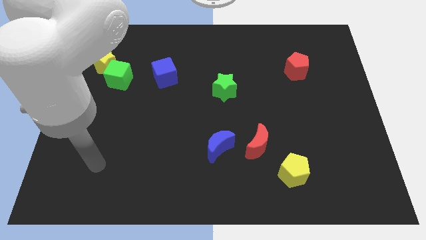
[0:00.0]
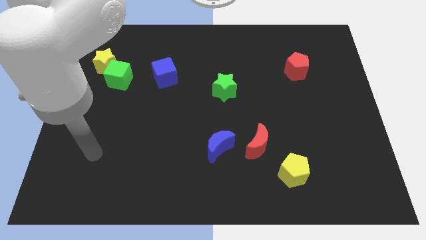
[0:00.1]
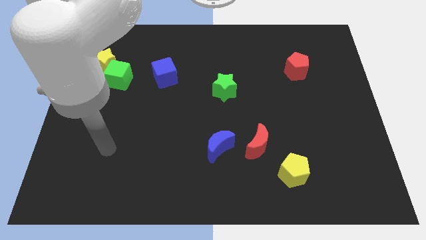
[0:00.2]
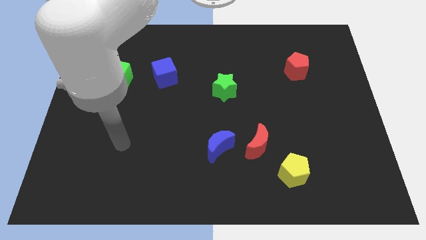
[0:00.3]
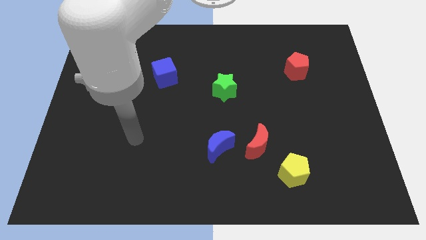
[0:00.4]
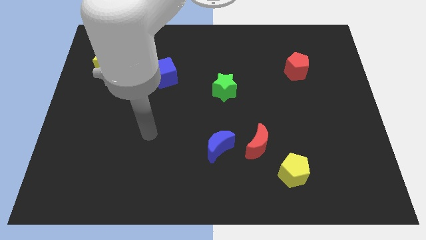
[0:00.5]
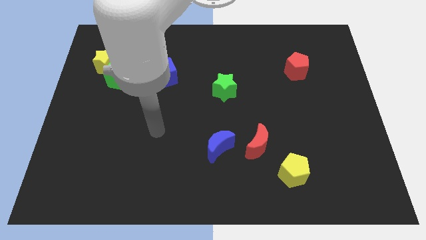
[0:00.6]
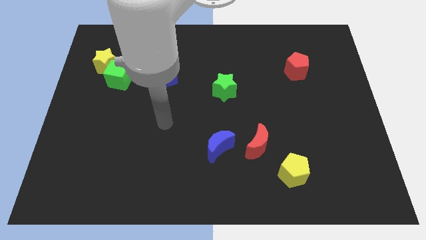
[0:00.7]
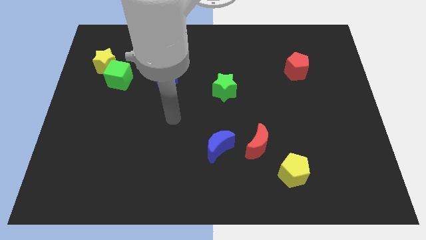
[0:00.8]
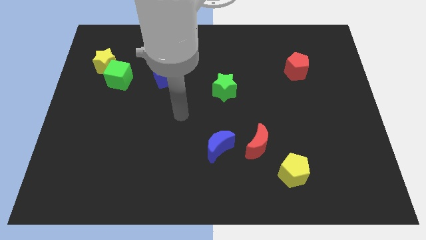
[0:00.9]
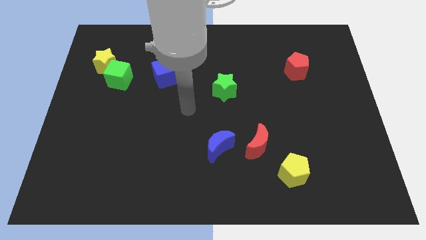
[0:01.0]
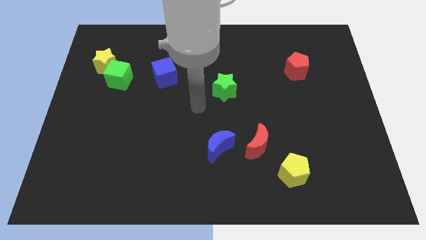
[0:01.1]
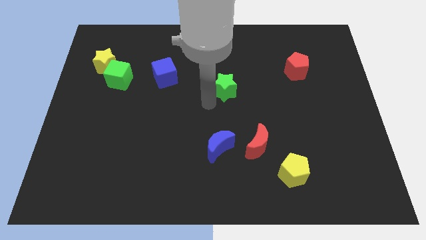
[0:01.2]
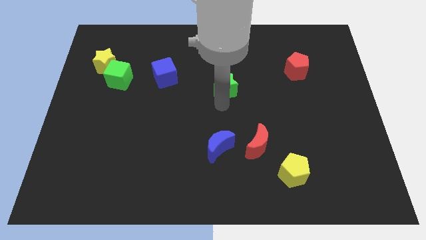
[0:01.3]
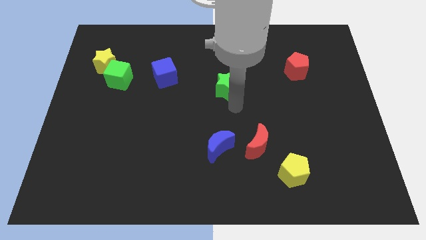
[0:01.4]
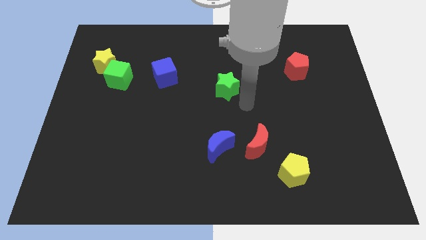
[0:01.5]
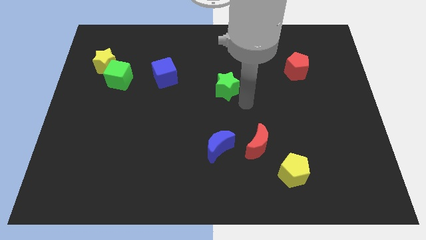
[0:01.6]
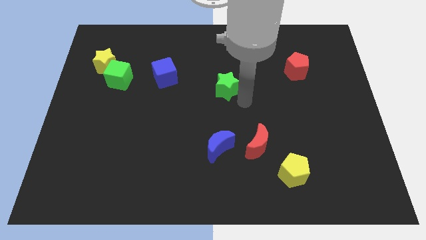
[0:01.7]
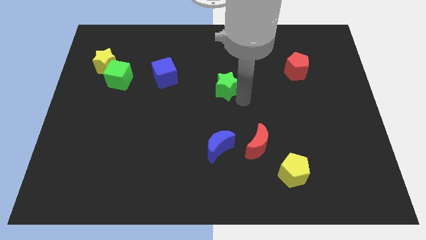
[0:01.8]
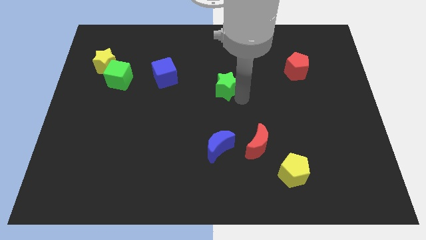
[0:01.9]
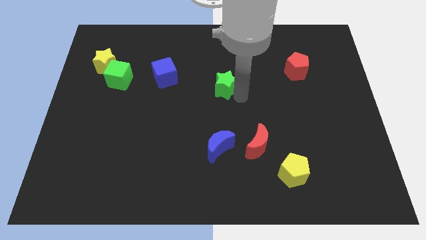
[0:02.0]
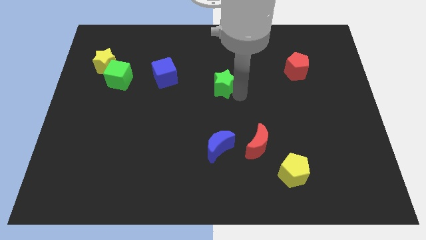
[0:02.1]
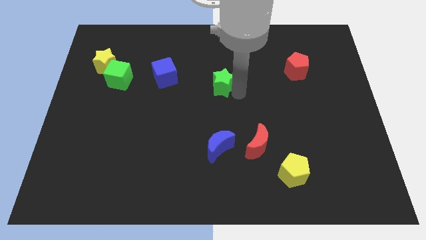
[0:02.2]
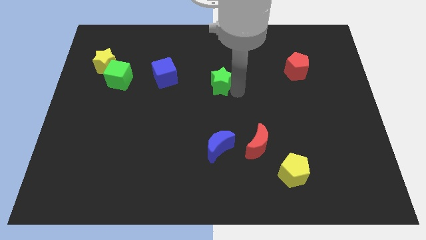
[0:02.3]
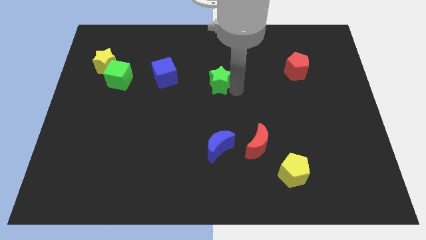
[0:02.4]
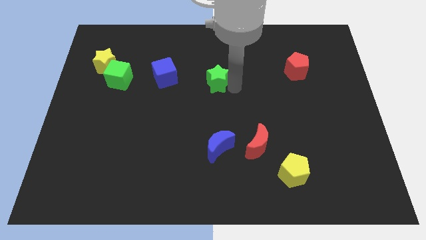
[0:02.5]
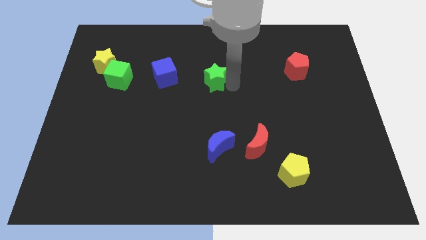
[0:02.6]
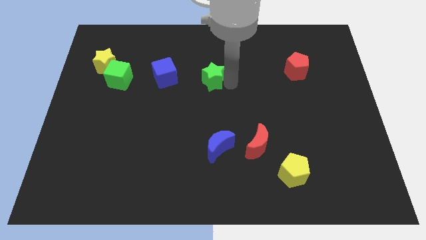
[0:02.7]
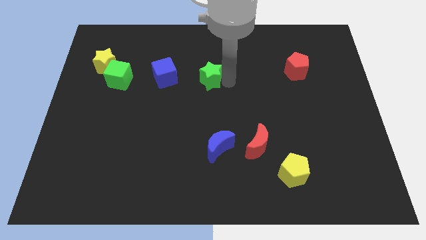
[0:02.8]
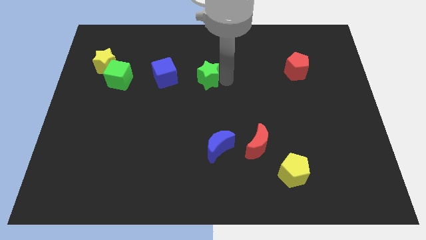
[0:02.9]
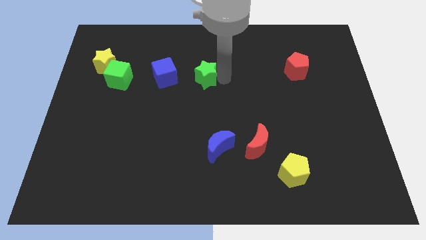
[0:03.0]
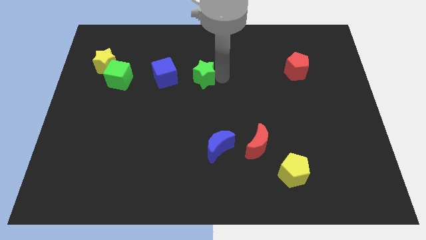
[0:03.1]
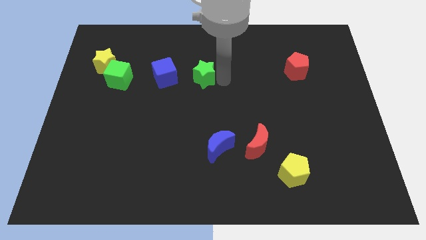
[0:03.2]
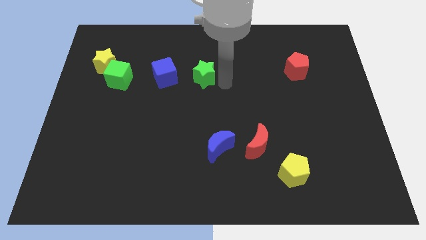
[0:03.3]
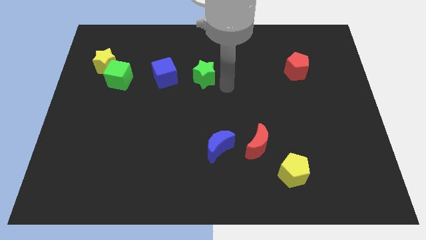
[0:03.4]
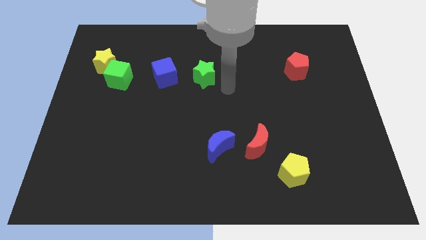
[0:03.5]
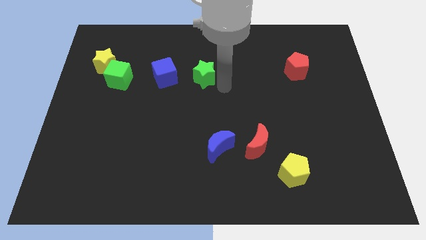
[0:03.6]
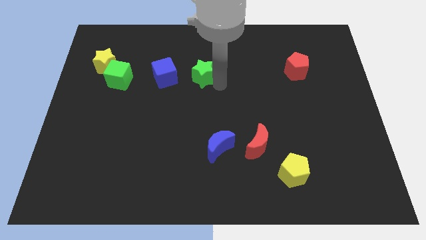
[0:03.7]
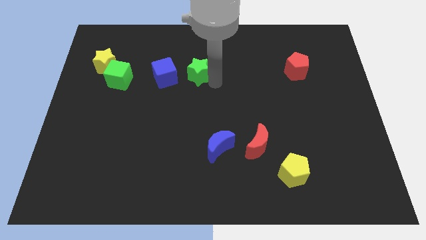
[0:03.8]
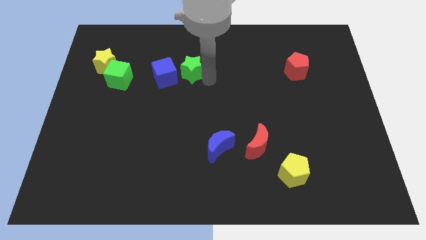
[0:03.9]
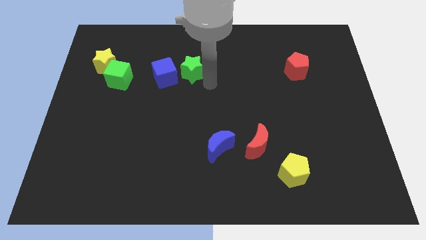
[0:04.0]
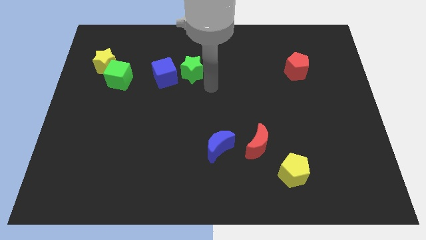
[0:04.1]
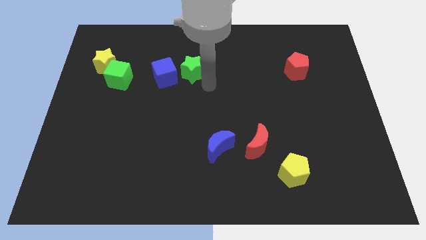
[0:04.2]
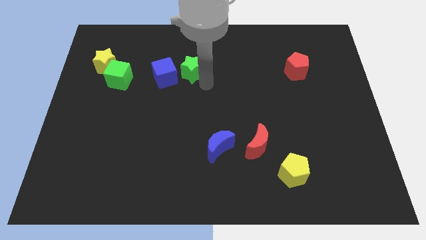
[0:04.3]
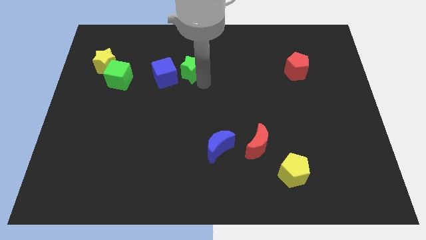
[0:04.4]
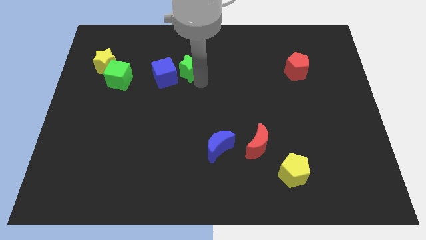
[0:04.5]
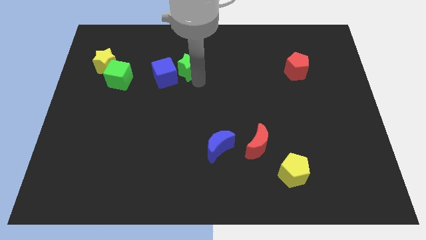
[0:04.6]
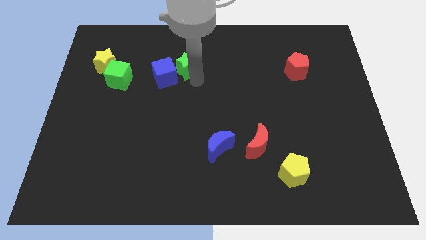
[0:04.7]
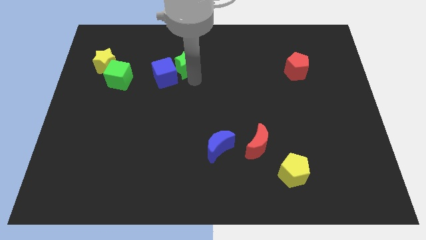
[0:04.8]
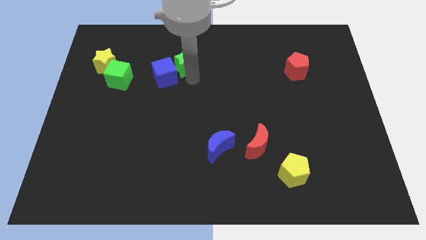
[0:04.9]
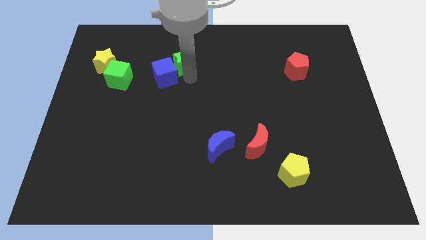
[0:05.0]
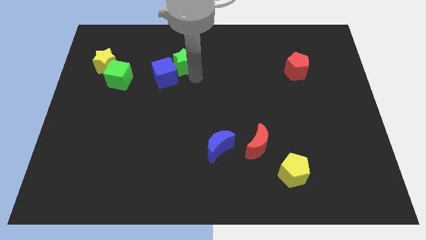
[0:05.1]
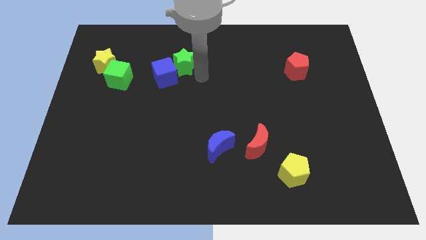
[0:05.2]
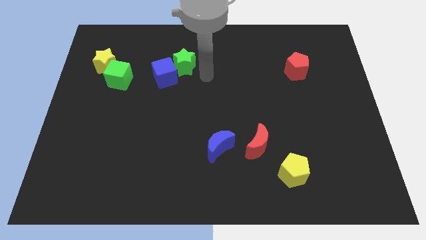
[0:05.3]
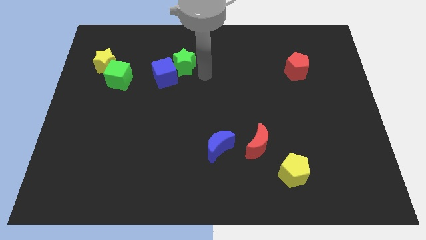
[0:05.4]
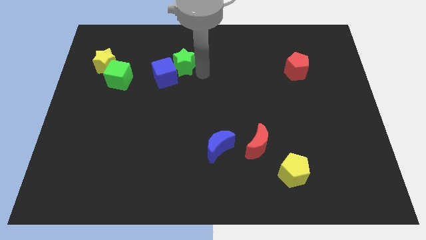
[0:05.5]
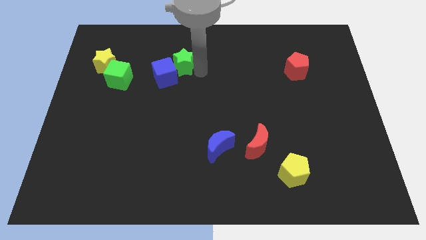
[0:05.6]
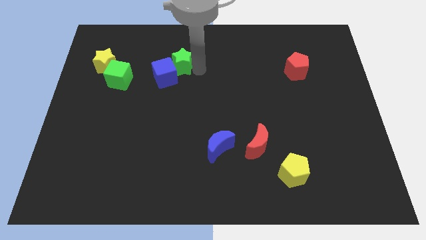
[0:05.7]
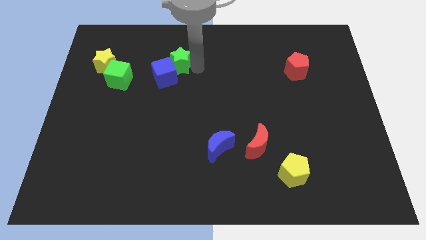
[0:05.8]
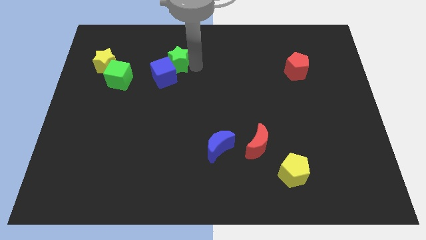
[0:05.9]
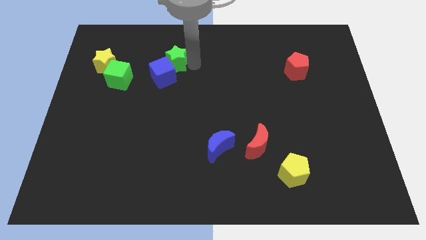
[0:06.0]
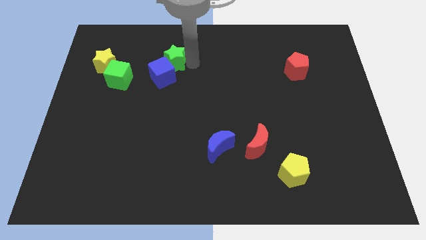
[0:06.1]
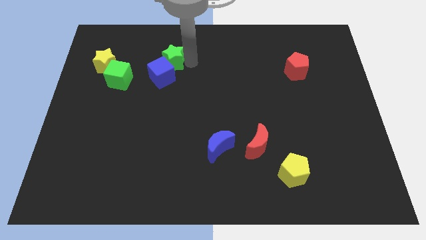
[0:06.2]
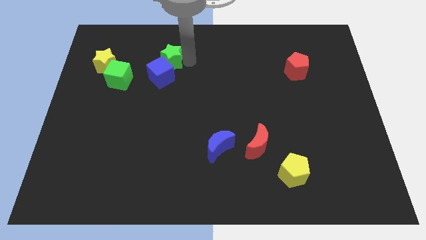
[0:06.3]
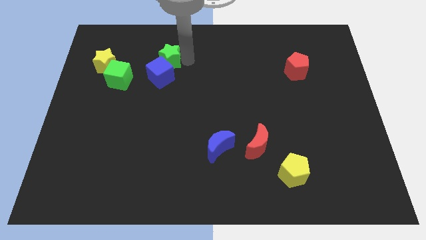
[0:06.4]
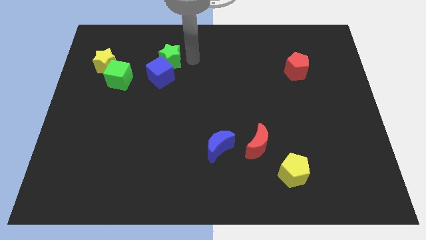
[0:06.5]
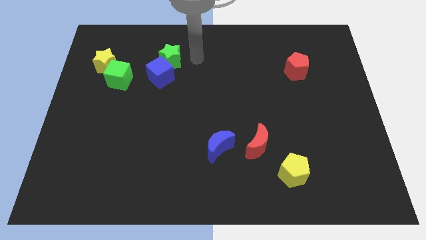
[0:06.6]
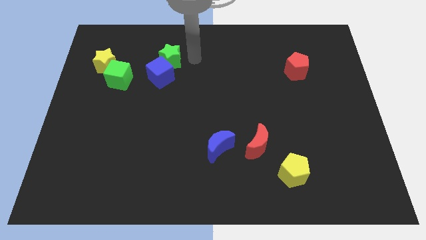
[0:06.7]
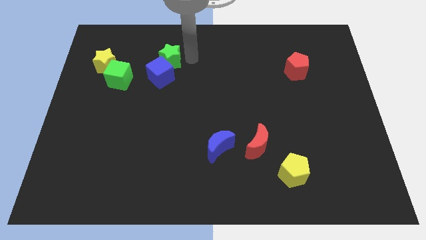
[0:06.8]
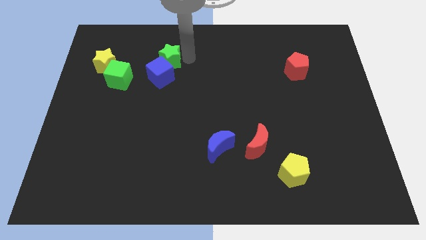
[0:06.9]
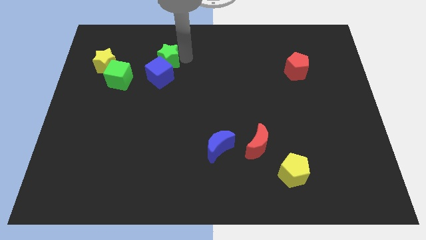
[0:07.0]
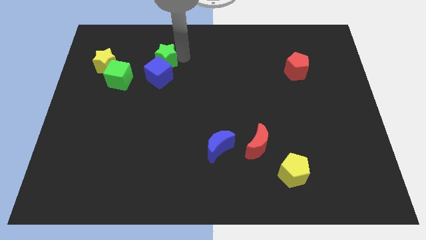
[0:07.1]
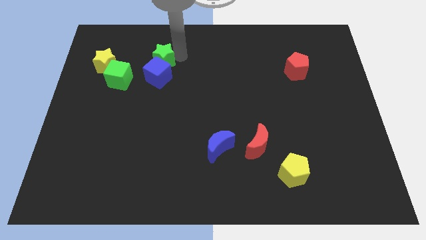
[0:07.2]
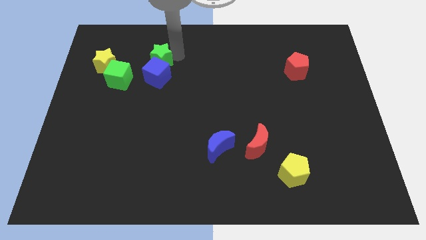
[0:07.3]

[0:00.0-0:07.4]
put the green star diagonally up and to the right of the green cube

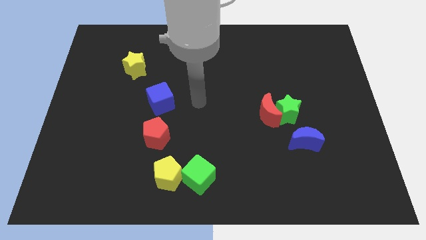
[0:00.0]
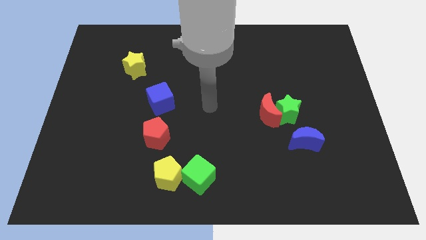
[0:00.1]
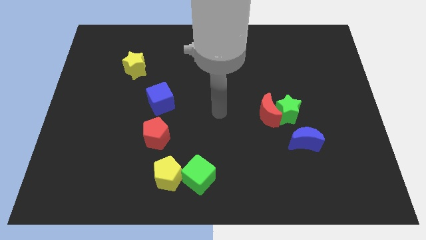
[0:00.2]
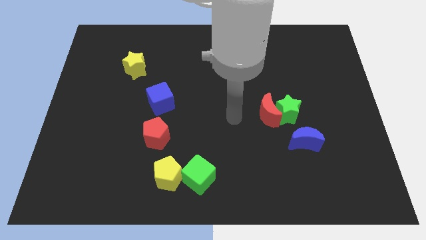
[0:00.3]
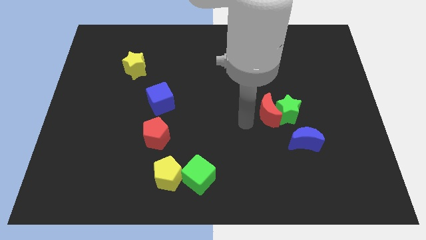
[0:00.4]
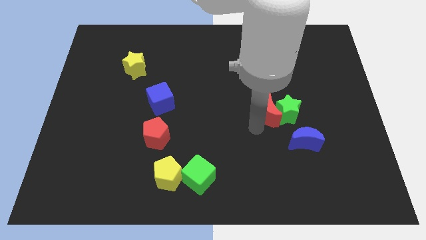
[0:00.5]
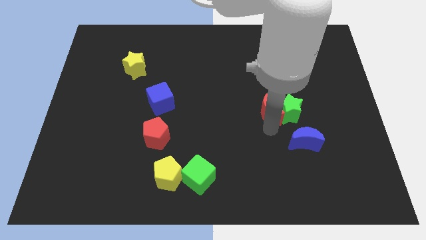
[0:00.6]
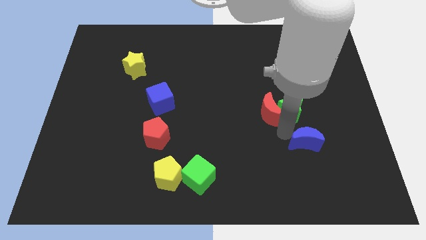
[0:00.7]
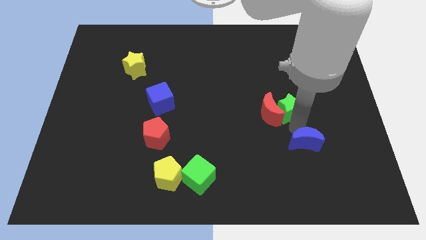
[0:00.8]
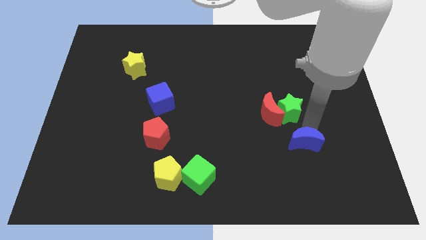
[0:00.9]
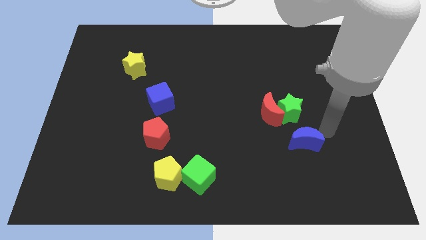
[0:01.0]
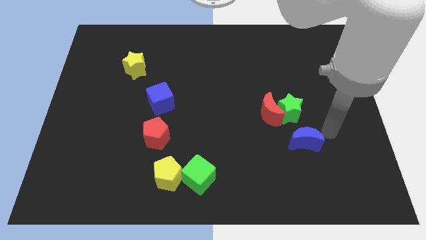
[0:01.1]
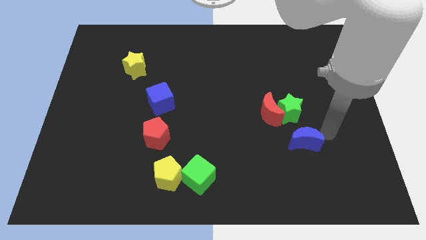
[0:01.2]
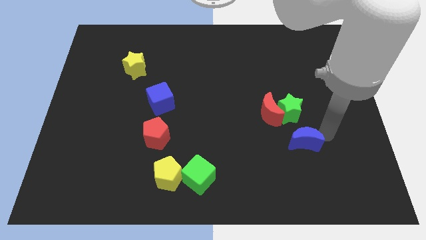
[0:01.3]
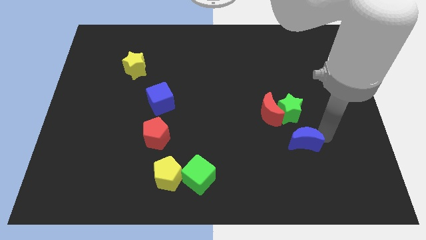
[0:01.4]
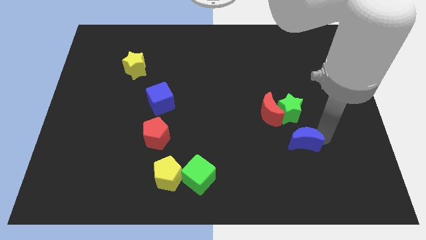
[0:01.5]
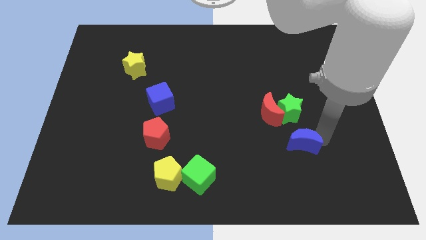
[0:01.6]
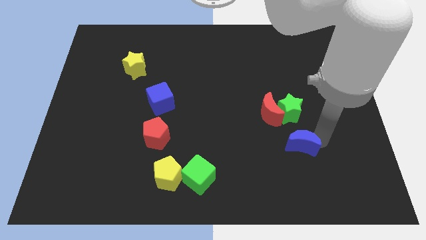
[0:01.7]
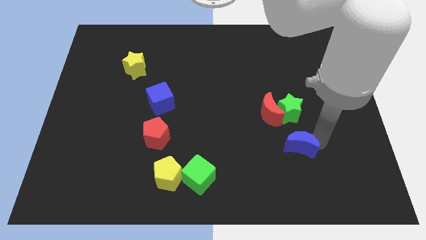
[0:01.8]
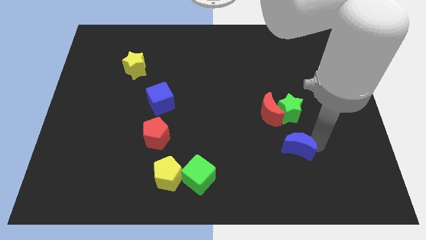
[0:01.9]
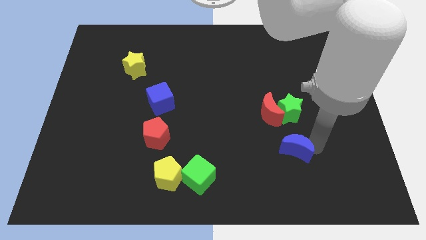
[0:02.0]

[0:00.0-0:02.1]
put the blue moon to the bottom side of the red moon
